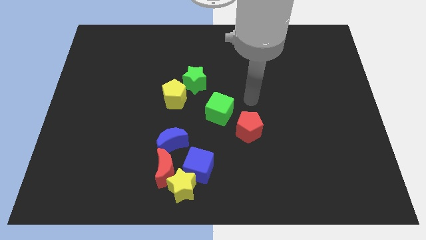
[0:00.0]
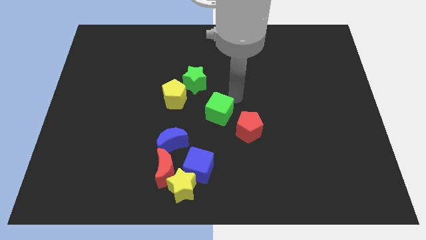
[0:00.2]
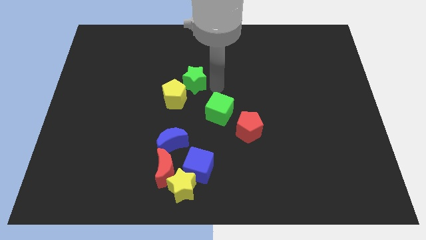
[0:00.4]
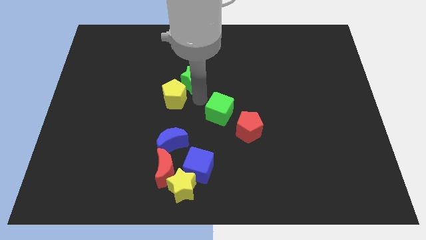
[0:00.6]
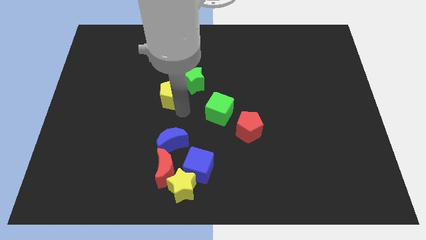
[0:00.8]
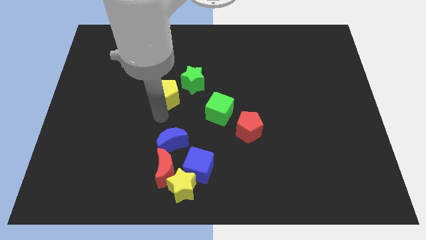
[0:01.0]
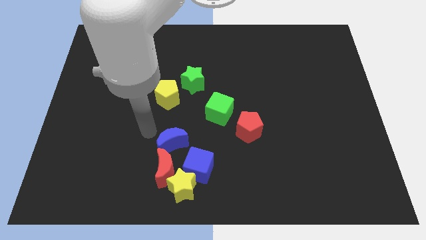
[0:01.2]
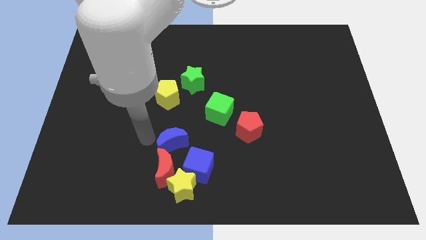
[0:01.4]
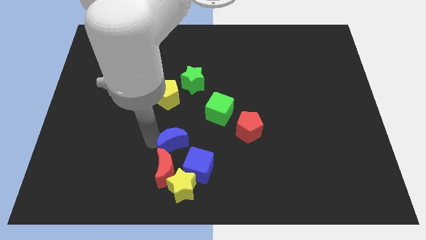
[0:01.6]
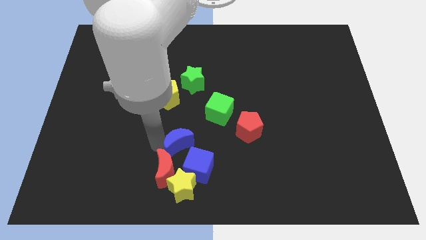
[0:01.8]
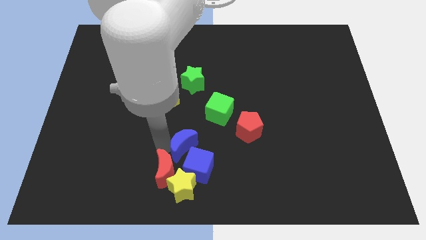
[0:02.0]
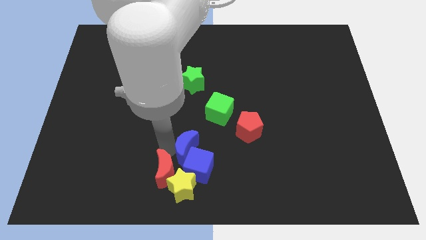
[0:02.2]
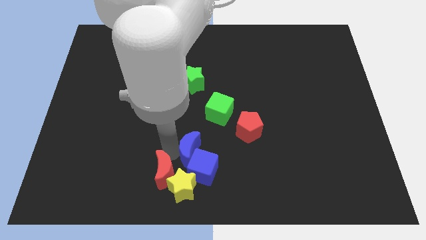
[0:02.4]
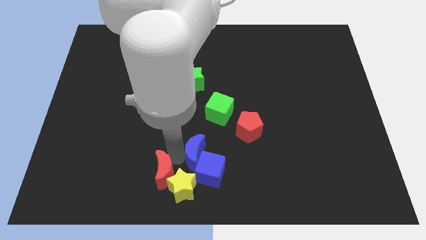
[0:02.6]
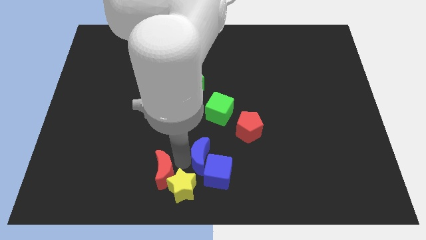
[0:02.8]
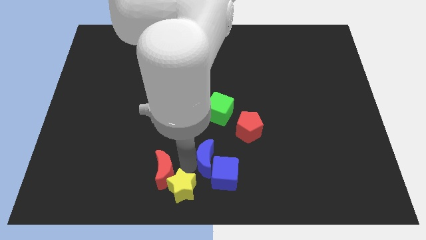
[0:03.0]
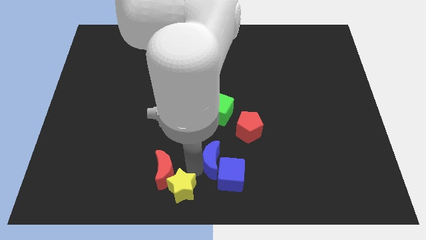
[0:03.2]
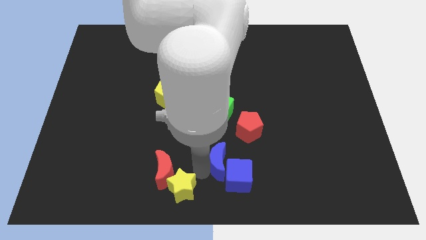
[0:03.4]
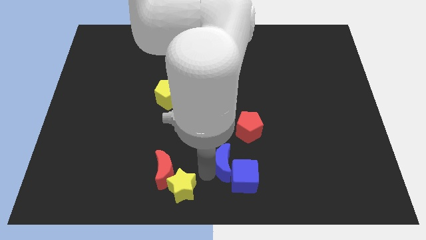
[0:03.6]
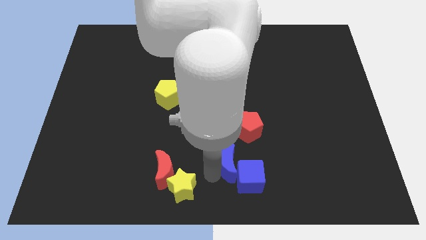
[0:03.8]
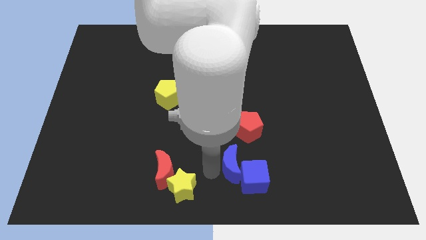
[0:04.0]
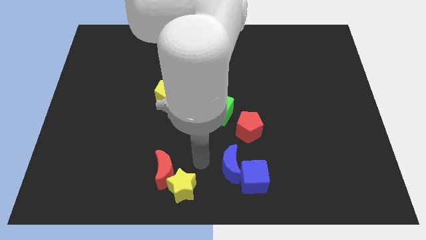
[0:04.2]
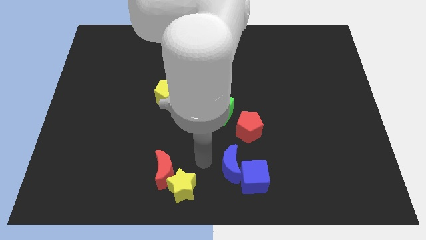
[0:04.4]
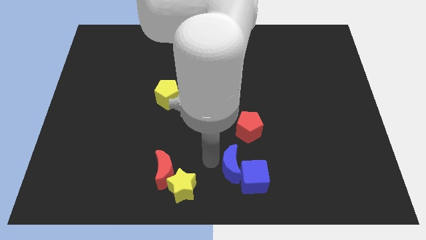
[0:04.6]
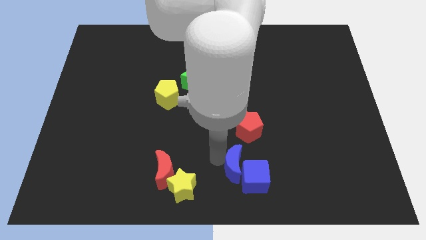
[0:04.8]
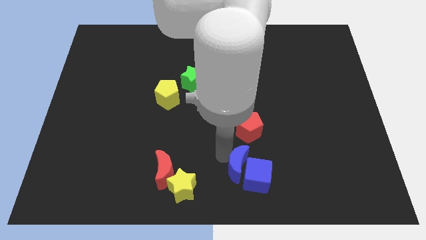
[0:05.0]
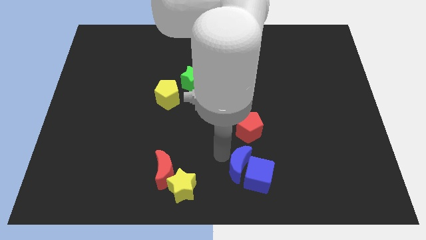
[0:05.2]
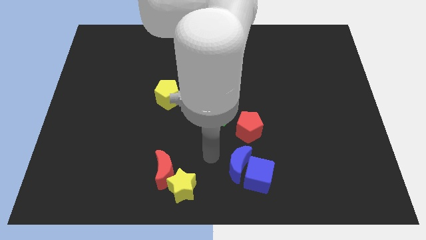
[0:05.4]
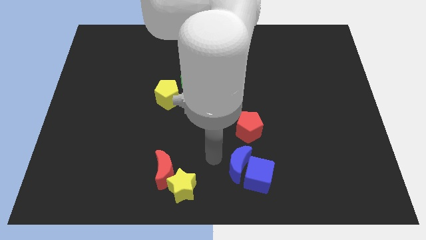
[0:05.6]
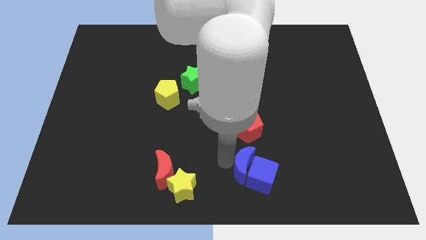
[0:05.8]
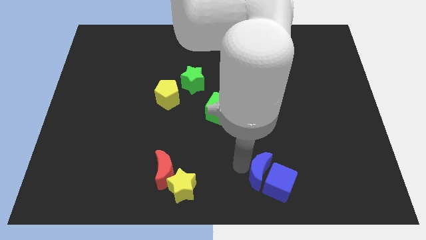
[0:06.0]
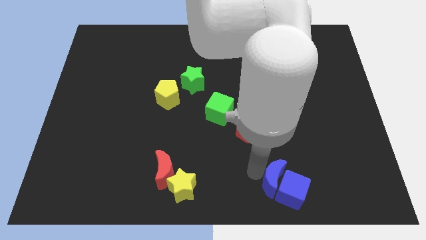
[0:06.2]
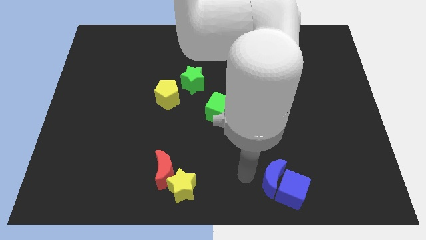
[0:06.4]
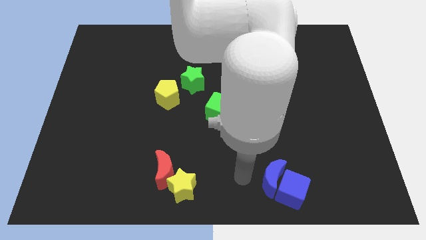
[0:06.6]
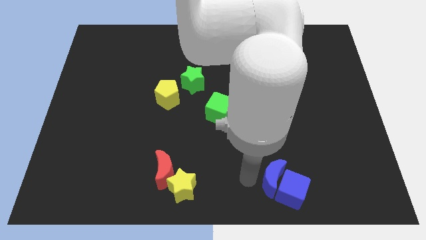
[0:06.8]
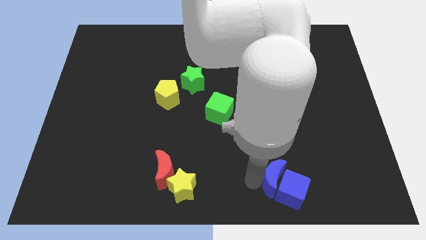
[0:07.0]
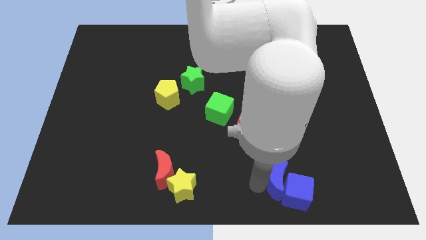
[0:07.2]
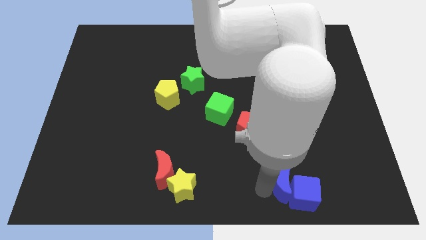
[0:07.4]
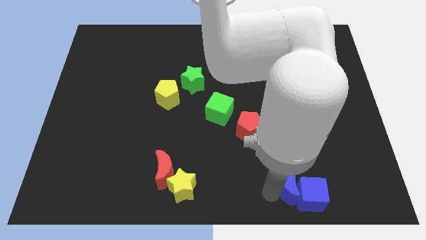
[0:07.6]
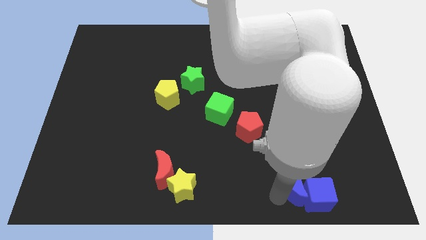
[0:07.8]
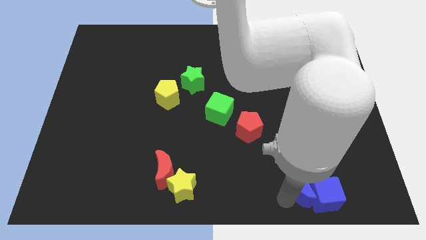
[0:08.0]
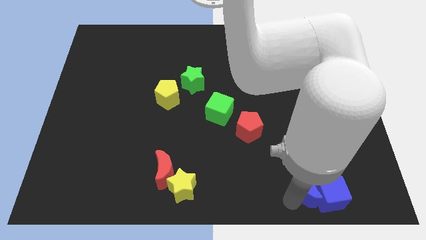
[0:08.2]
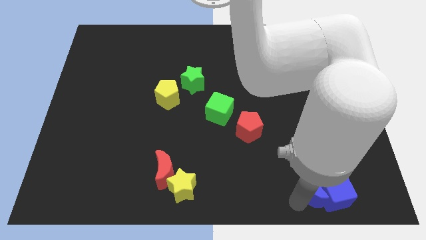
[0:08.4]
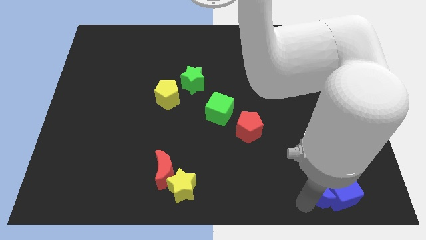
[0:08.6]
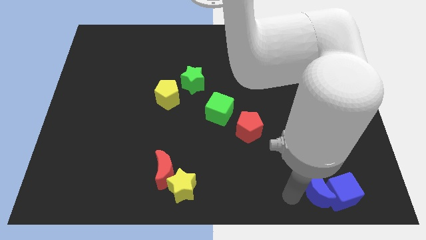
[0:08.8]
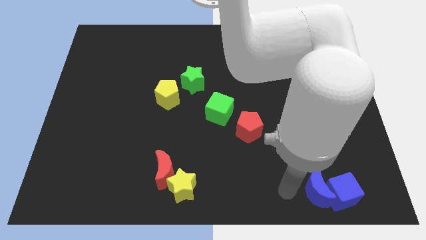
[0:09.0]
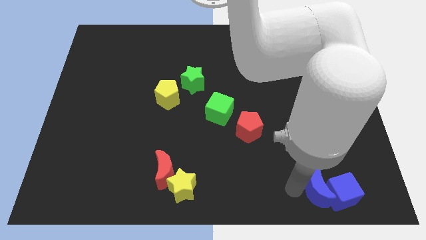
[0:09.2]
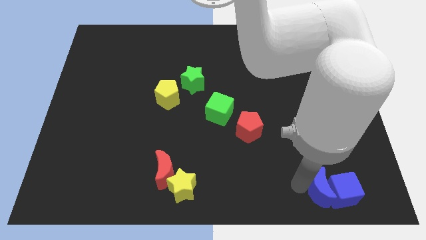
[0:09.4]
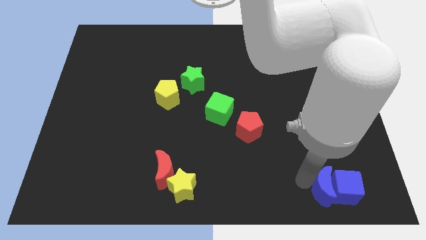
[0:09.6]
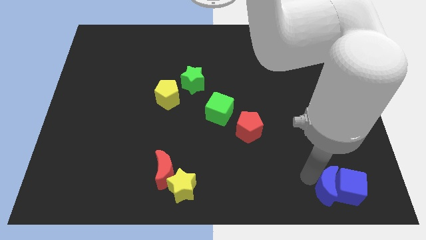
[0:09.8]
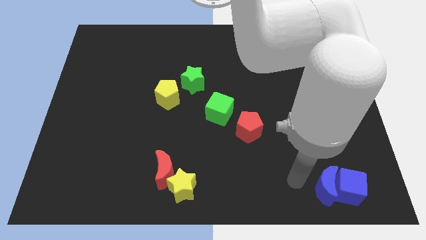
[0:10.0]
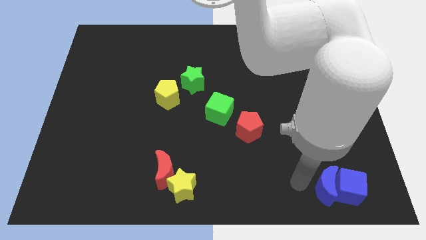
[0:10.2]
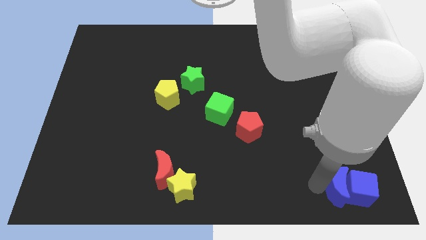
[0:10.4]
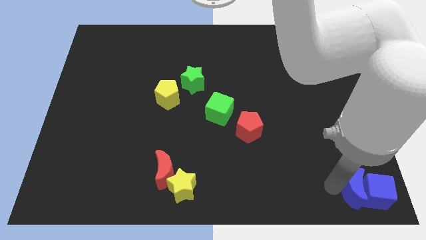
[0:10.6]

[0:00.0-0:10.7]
move the blue moon to the bottom right of the board

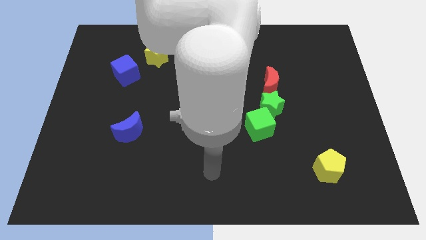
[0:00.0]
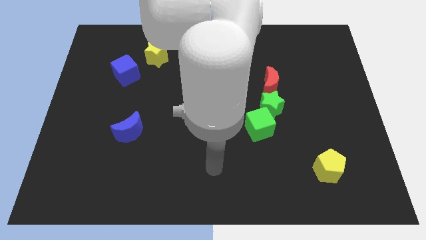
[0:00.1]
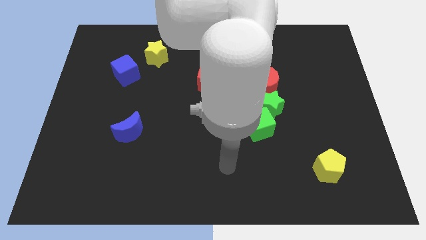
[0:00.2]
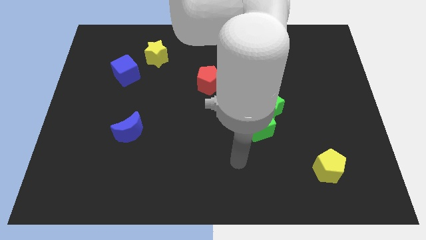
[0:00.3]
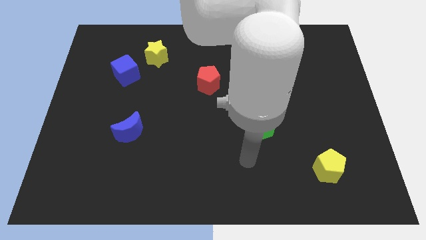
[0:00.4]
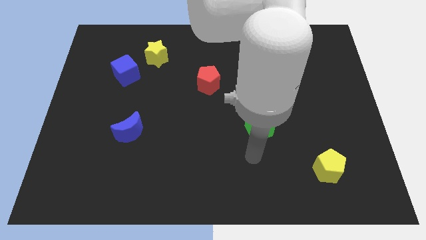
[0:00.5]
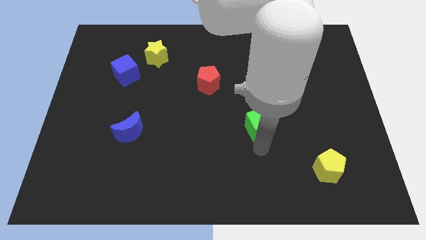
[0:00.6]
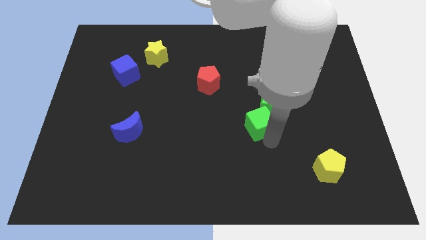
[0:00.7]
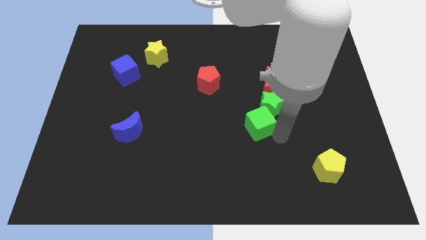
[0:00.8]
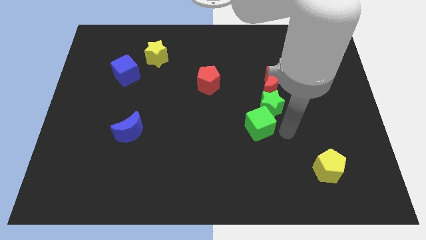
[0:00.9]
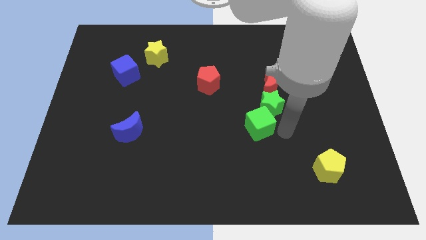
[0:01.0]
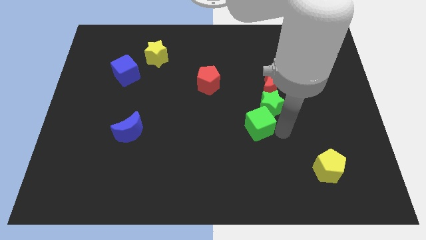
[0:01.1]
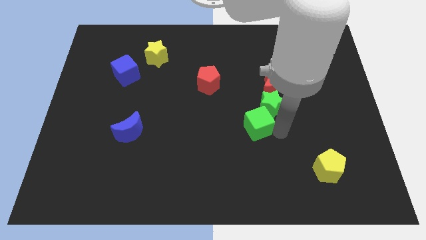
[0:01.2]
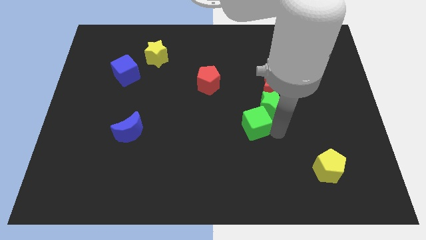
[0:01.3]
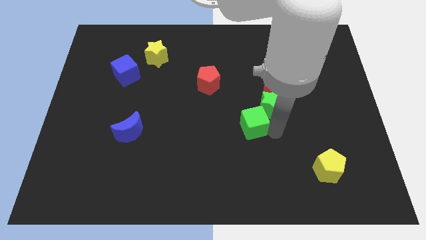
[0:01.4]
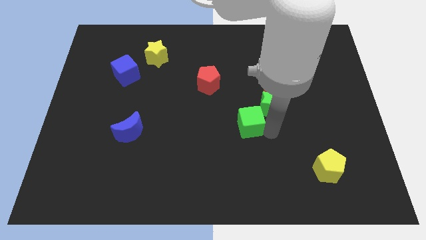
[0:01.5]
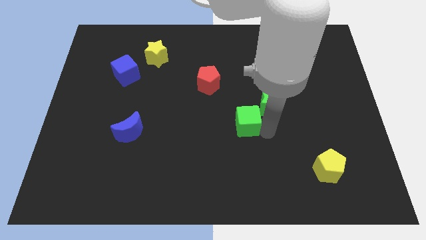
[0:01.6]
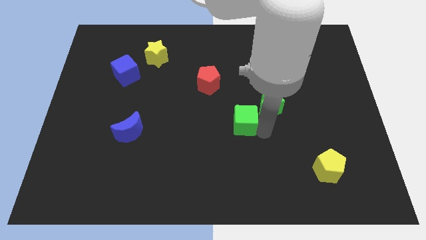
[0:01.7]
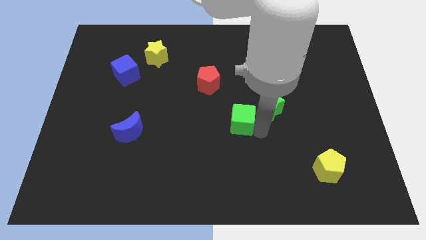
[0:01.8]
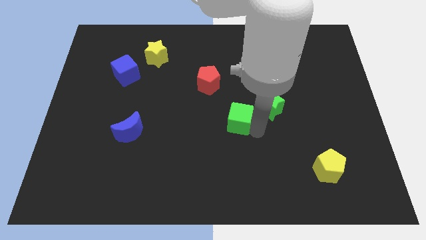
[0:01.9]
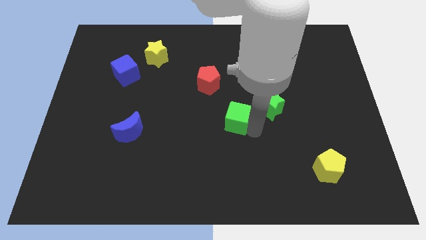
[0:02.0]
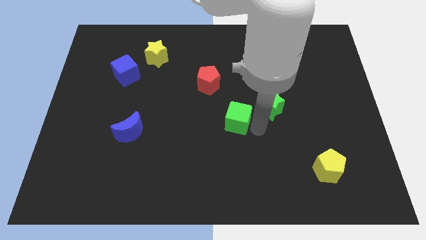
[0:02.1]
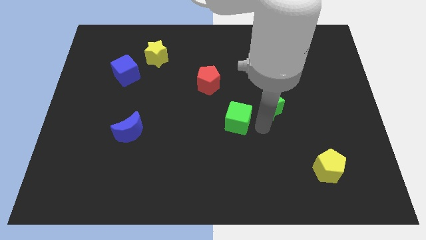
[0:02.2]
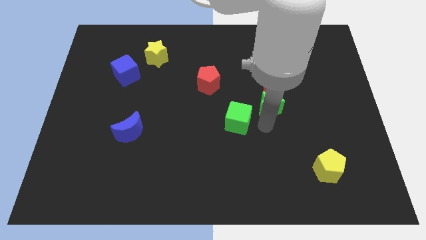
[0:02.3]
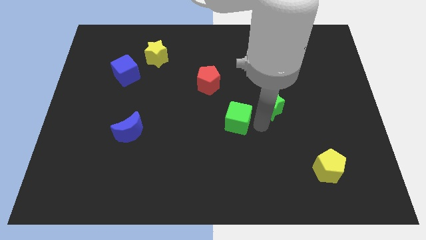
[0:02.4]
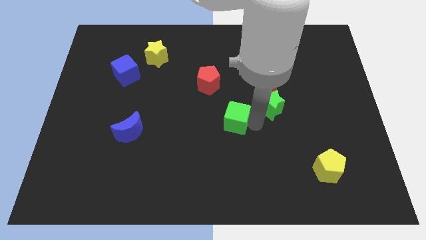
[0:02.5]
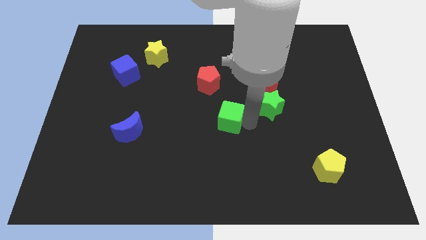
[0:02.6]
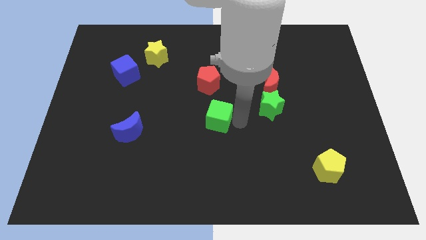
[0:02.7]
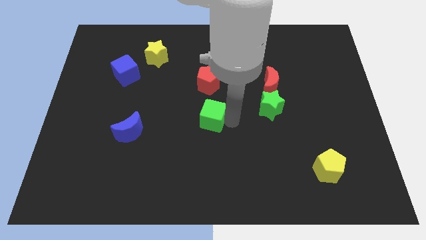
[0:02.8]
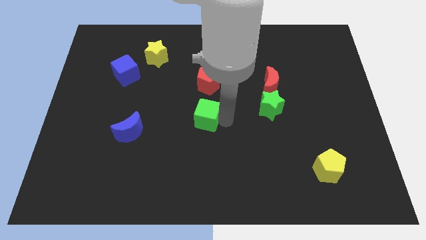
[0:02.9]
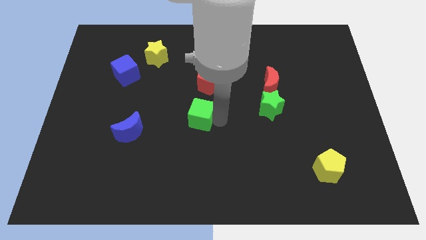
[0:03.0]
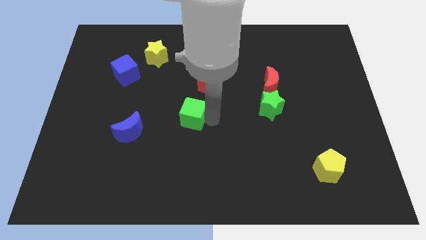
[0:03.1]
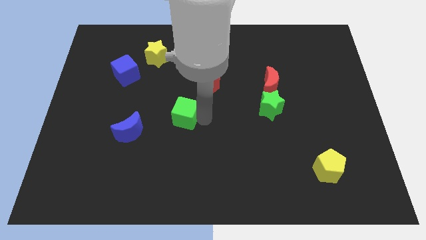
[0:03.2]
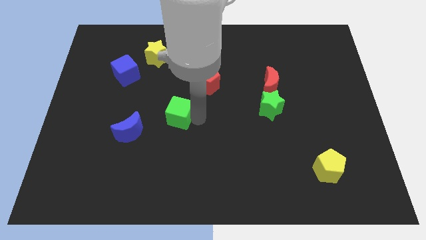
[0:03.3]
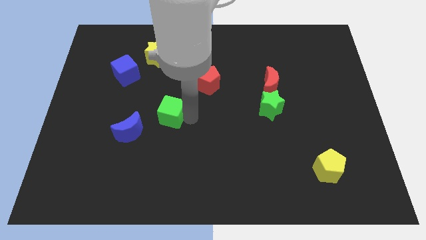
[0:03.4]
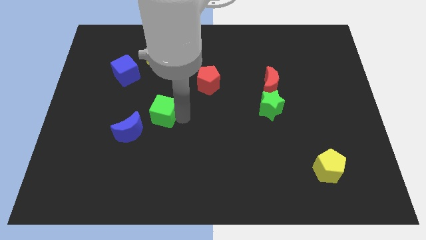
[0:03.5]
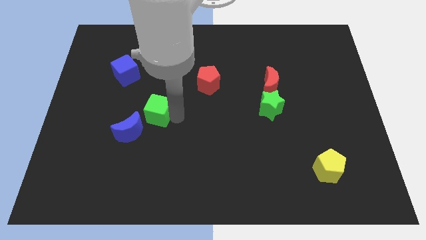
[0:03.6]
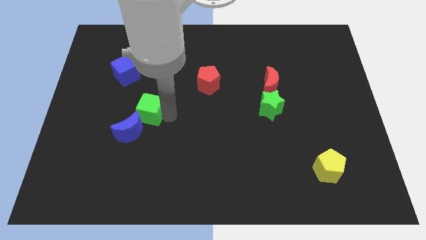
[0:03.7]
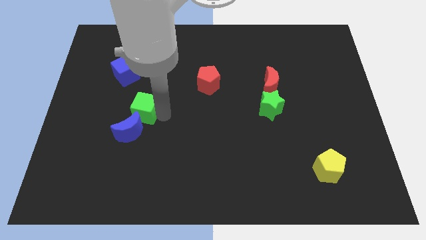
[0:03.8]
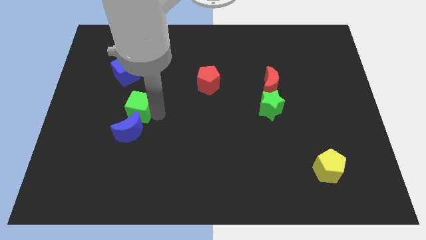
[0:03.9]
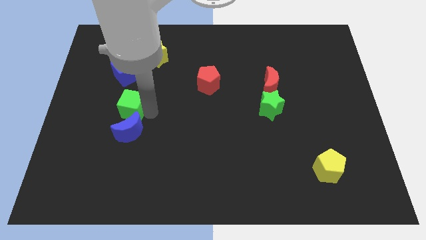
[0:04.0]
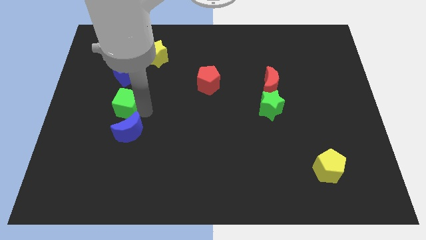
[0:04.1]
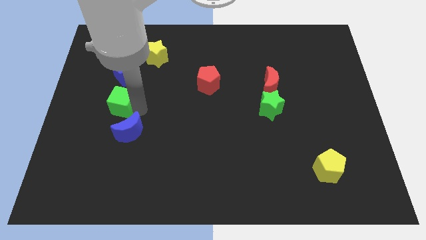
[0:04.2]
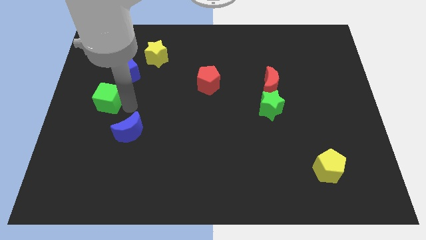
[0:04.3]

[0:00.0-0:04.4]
slide the green cube to the left side of the board
